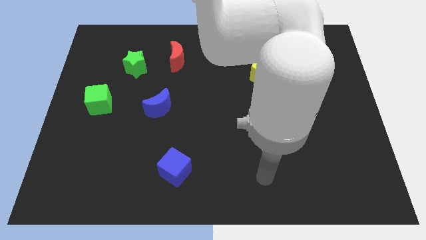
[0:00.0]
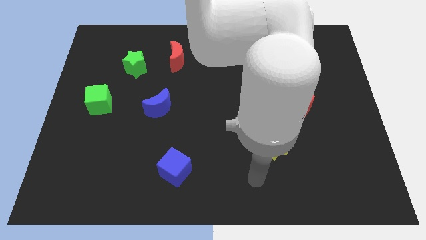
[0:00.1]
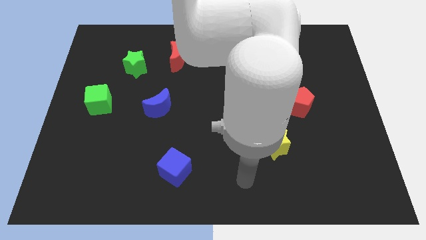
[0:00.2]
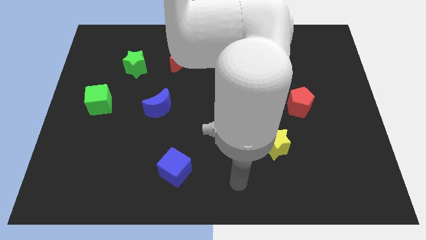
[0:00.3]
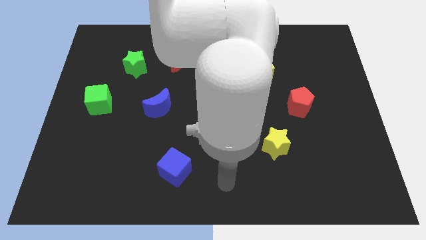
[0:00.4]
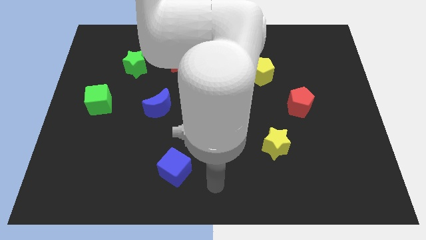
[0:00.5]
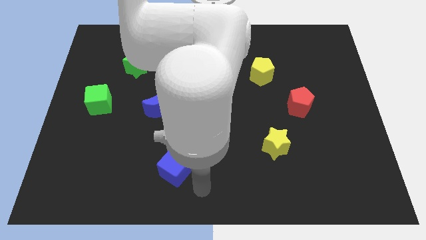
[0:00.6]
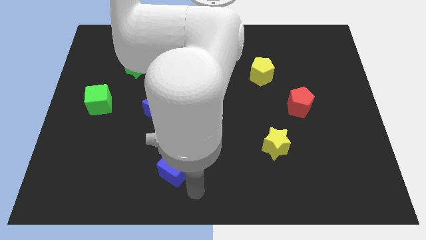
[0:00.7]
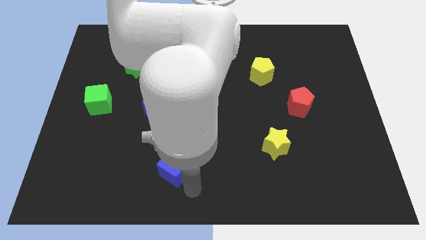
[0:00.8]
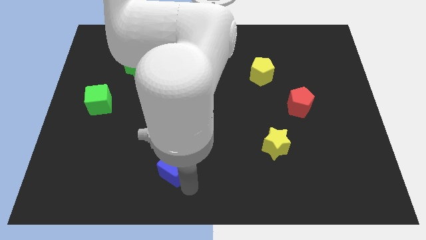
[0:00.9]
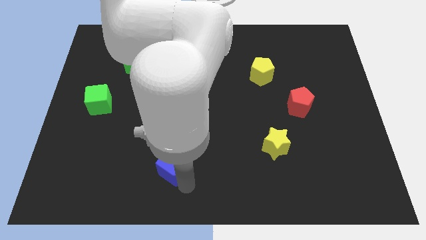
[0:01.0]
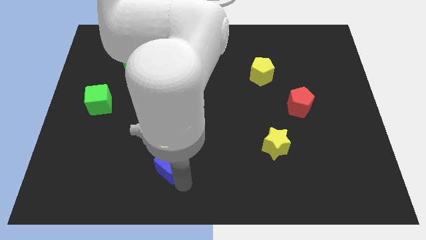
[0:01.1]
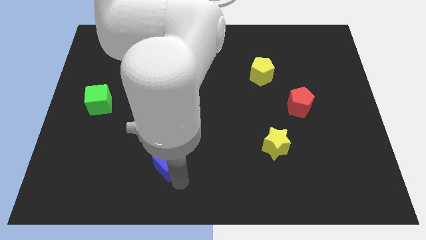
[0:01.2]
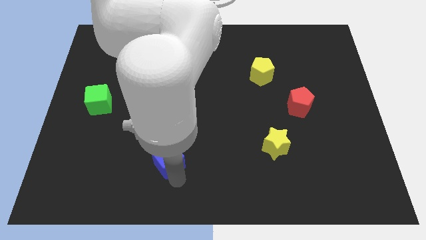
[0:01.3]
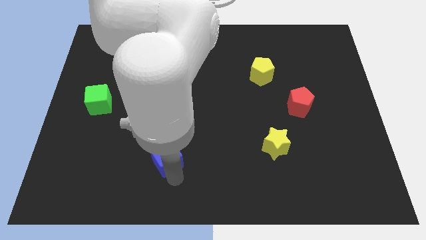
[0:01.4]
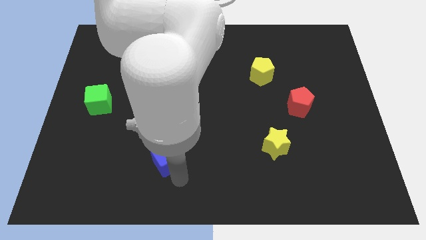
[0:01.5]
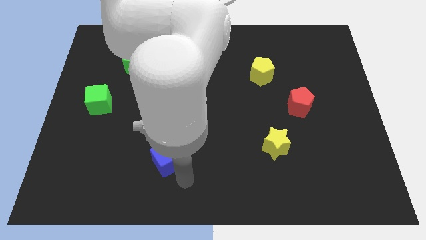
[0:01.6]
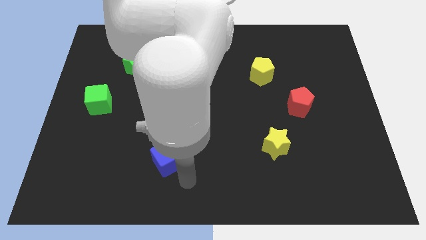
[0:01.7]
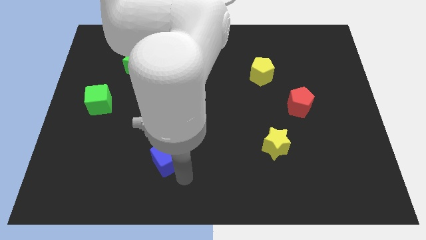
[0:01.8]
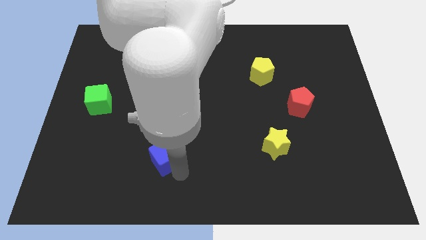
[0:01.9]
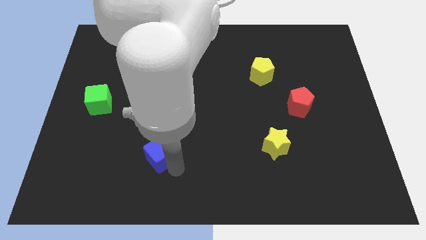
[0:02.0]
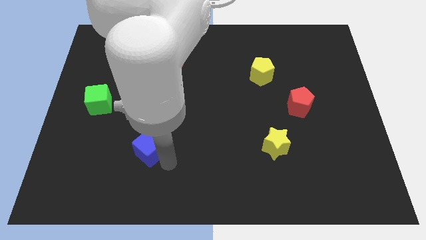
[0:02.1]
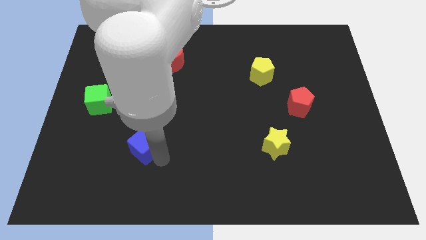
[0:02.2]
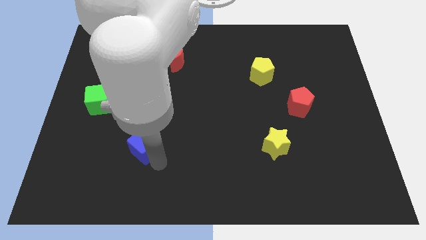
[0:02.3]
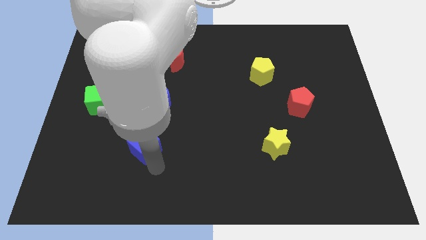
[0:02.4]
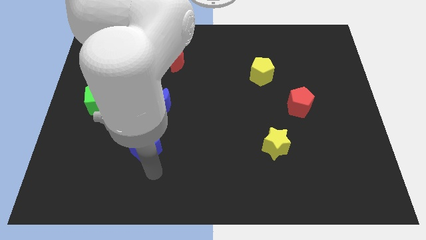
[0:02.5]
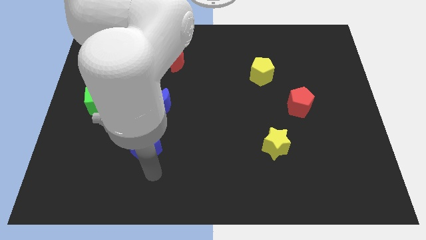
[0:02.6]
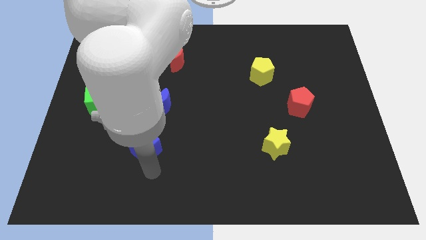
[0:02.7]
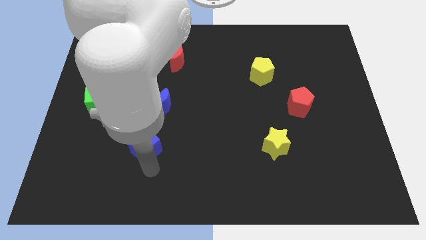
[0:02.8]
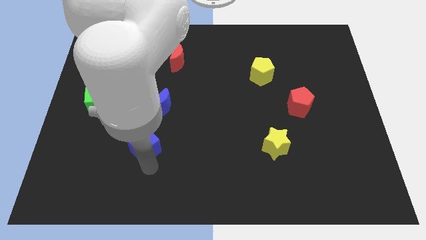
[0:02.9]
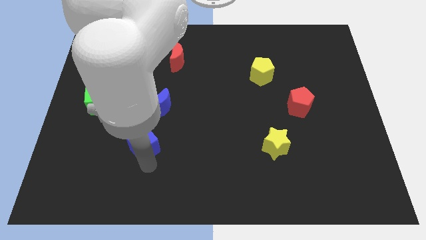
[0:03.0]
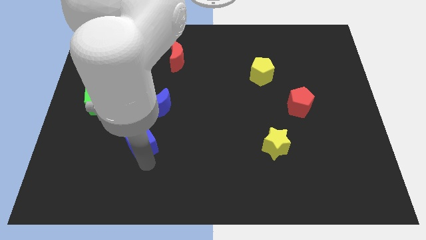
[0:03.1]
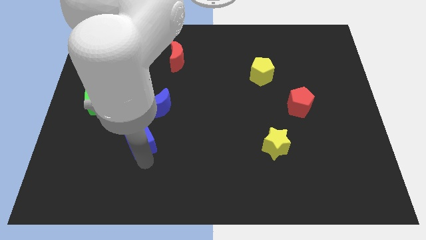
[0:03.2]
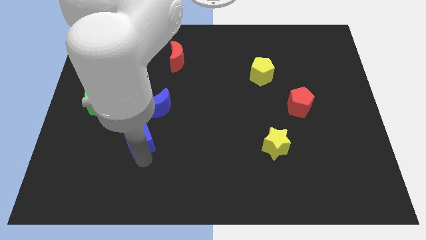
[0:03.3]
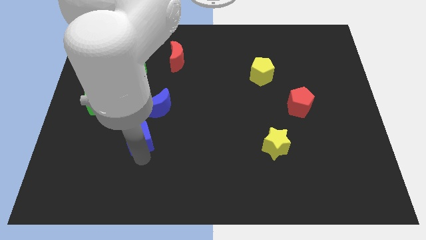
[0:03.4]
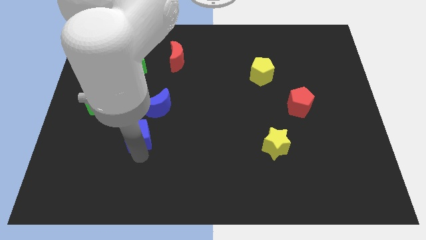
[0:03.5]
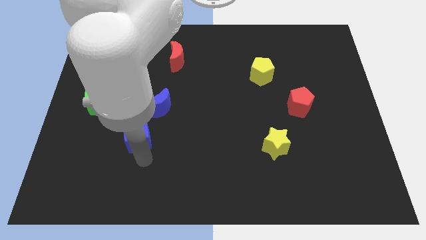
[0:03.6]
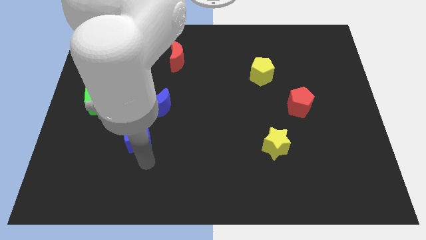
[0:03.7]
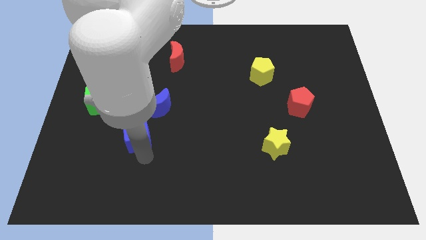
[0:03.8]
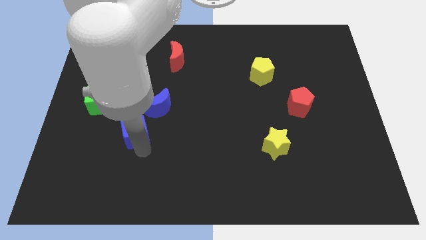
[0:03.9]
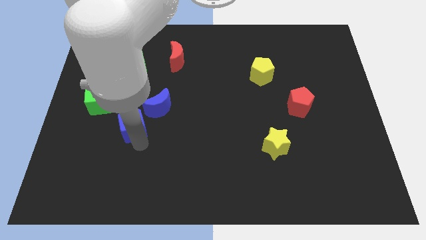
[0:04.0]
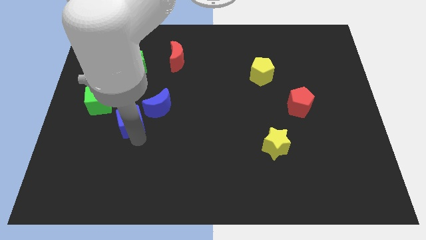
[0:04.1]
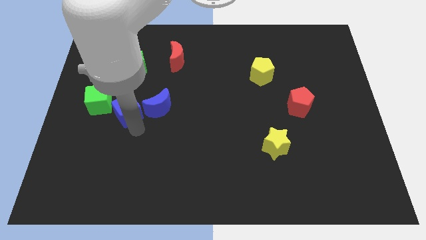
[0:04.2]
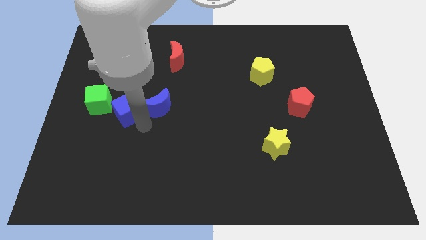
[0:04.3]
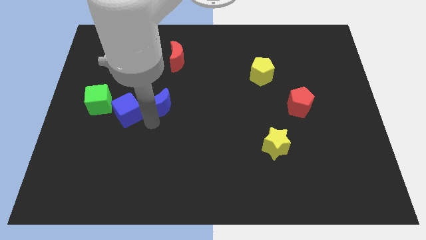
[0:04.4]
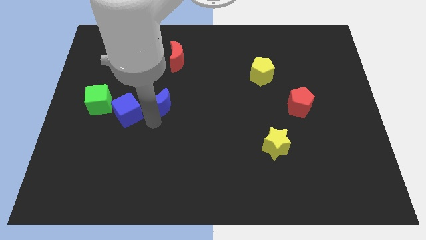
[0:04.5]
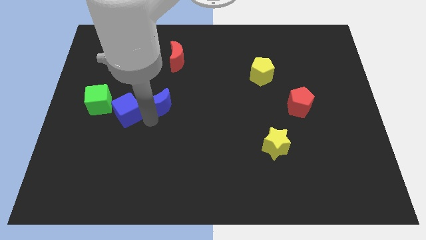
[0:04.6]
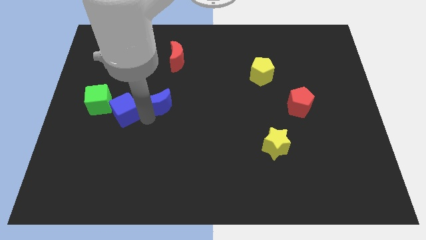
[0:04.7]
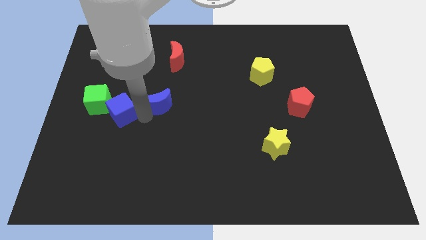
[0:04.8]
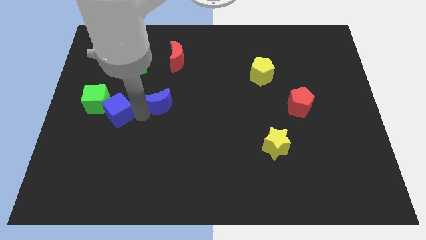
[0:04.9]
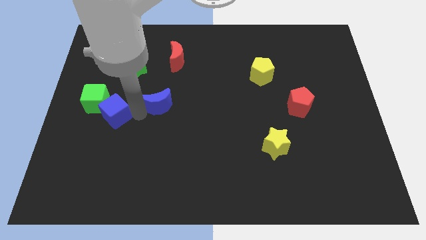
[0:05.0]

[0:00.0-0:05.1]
push the blue cube close to the green cube

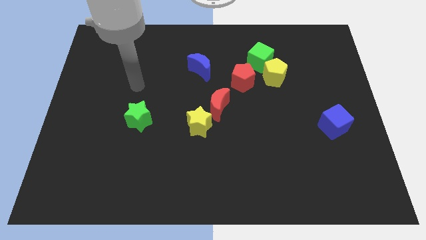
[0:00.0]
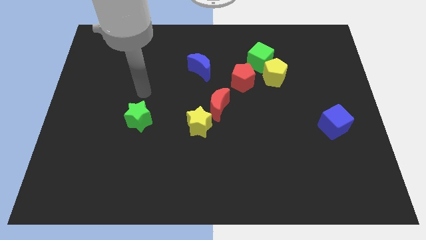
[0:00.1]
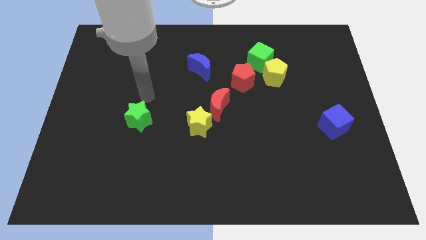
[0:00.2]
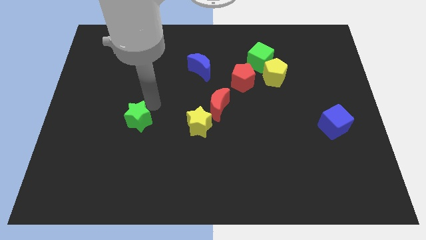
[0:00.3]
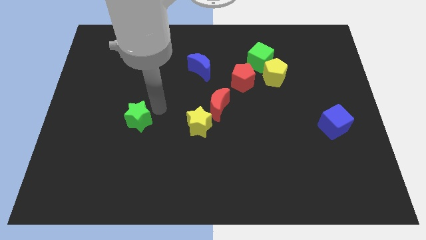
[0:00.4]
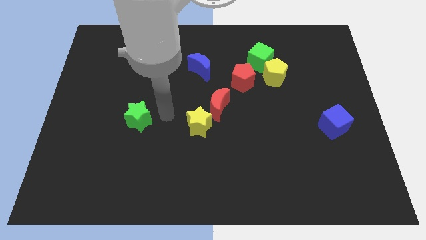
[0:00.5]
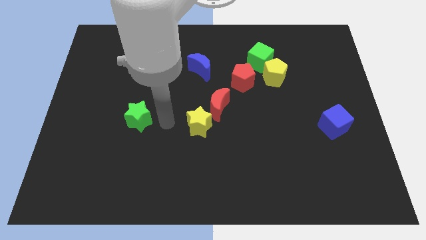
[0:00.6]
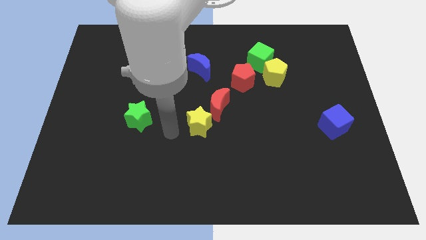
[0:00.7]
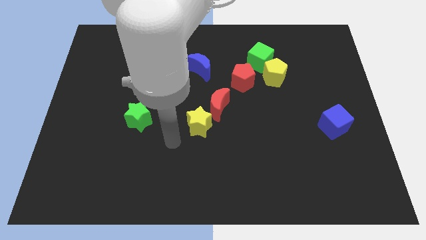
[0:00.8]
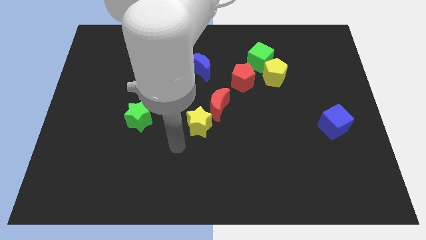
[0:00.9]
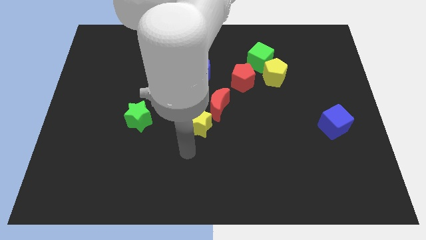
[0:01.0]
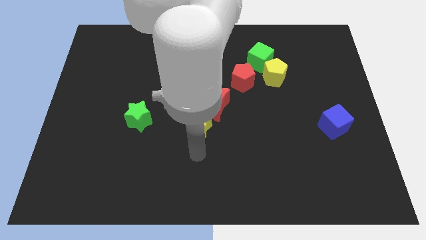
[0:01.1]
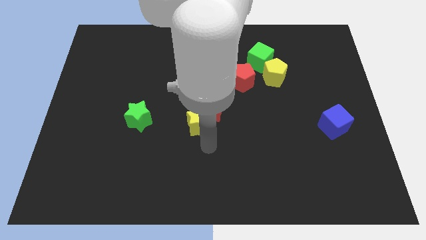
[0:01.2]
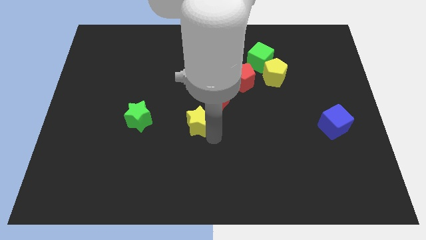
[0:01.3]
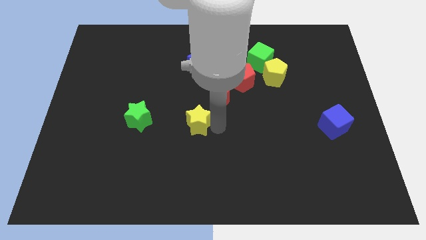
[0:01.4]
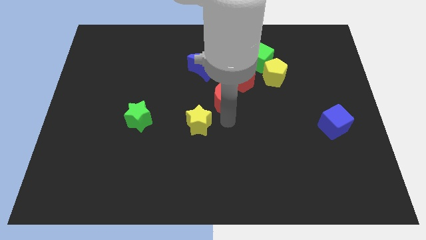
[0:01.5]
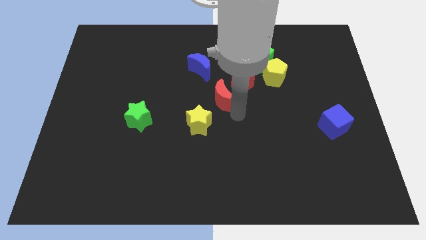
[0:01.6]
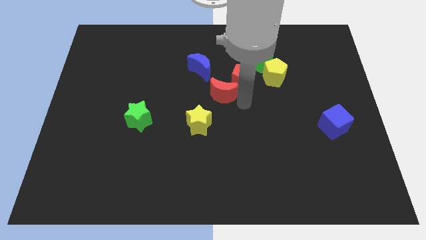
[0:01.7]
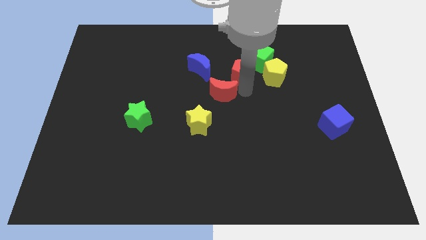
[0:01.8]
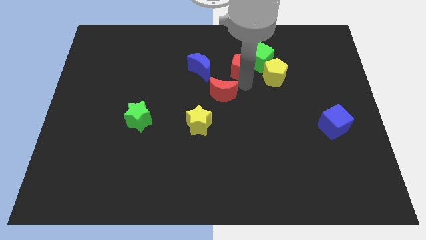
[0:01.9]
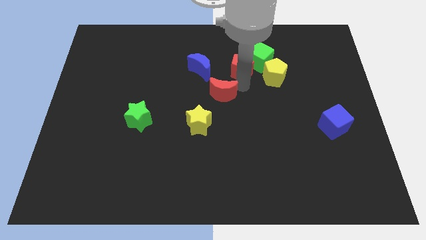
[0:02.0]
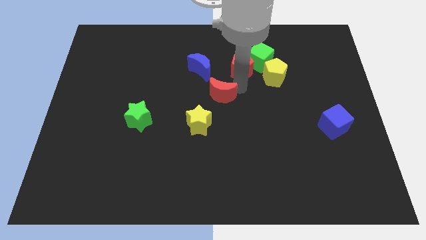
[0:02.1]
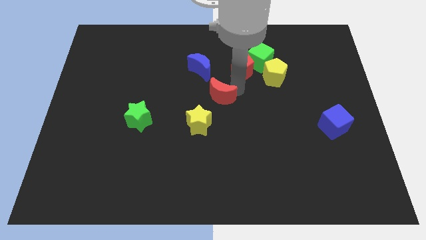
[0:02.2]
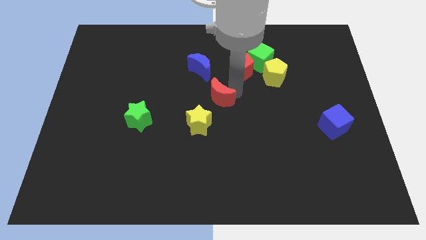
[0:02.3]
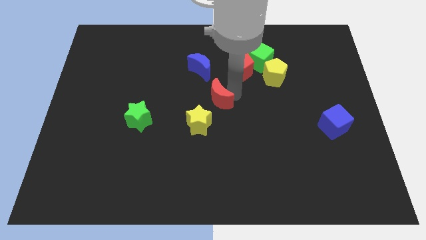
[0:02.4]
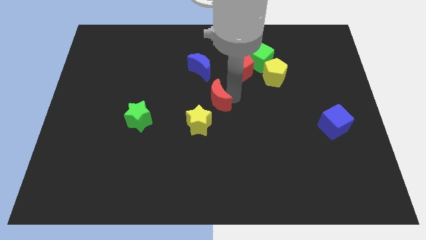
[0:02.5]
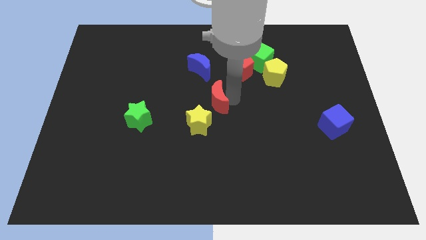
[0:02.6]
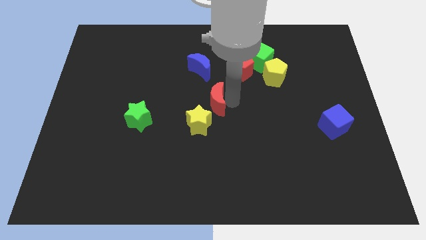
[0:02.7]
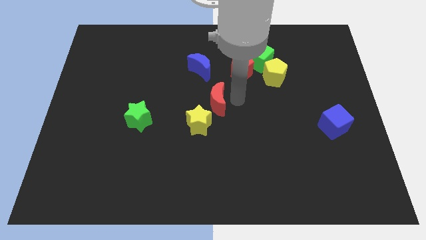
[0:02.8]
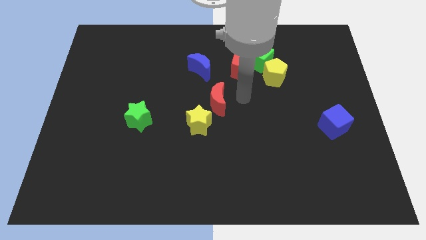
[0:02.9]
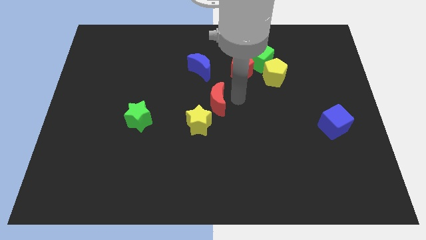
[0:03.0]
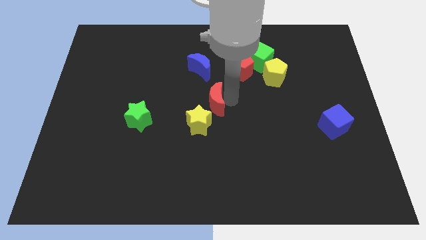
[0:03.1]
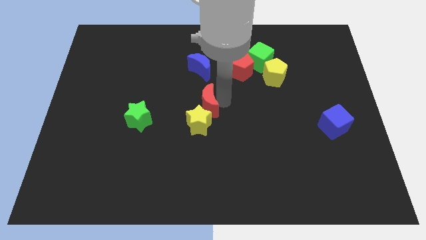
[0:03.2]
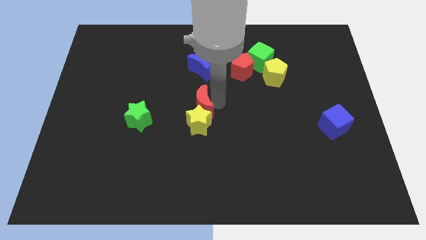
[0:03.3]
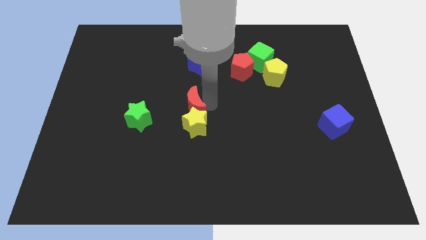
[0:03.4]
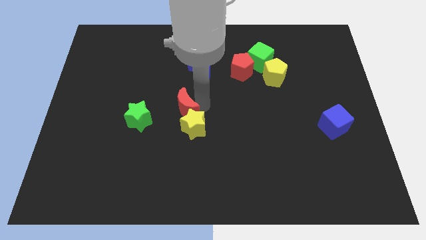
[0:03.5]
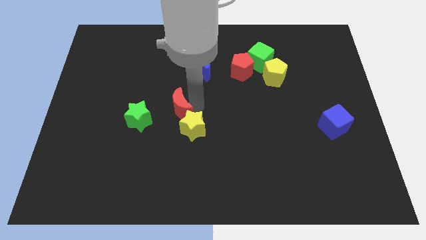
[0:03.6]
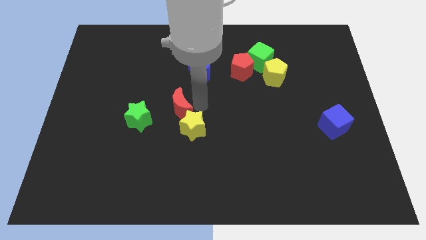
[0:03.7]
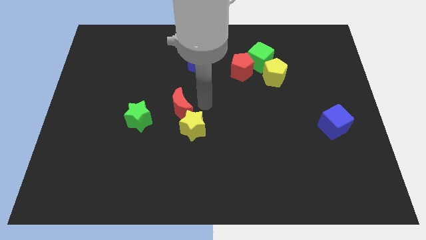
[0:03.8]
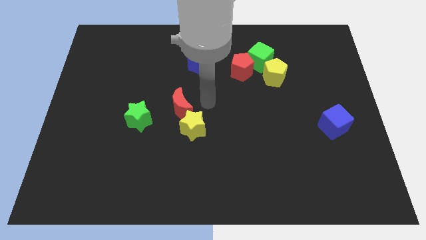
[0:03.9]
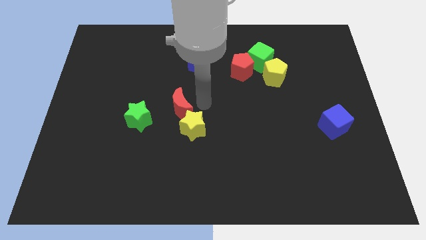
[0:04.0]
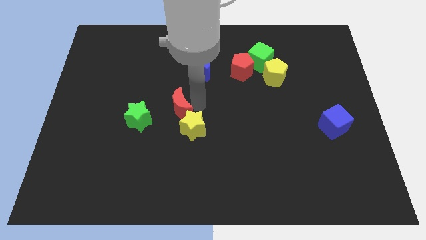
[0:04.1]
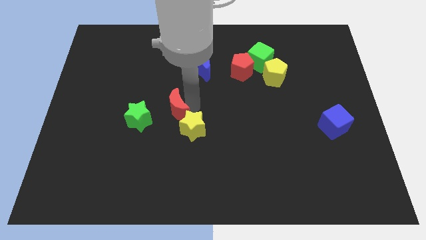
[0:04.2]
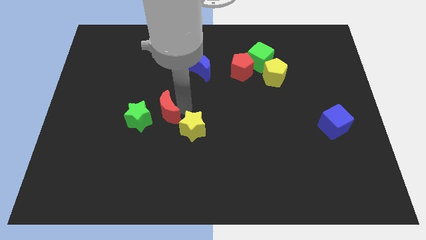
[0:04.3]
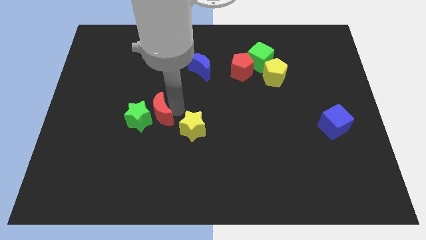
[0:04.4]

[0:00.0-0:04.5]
move the red moon towards the green star
